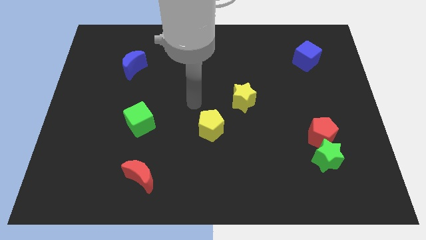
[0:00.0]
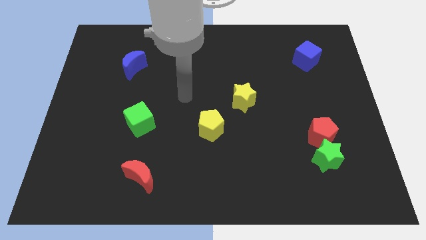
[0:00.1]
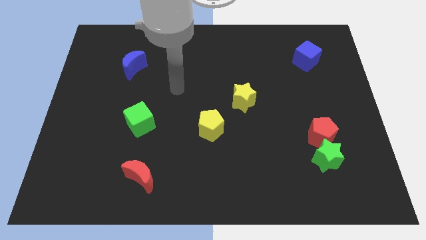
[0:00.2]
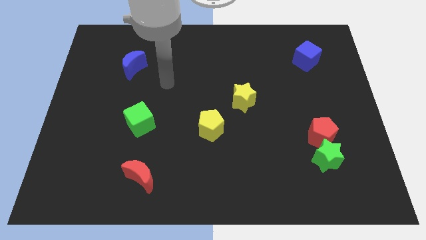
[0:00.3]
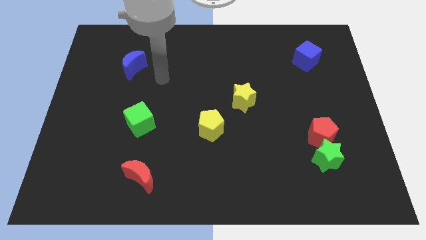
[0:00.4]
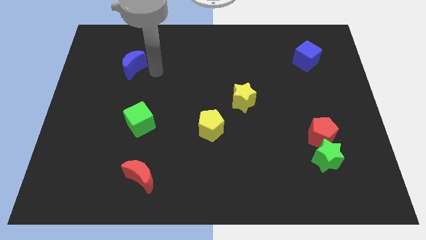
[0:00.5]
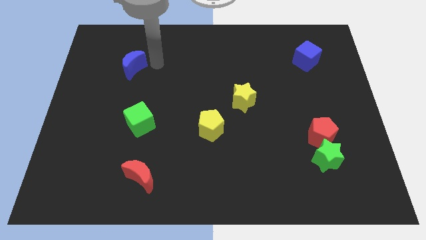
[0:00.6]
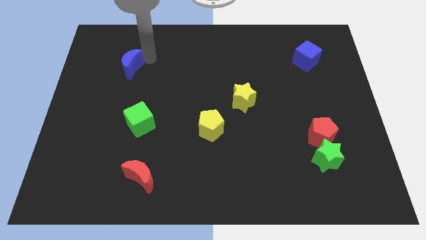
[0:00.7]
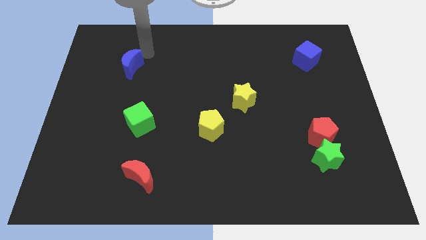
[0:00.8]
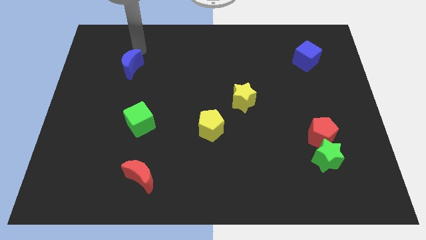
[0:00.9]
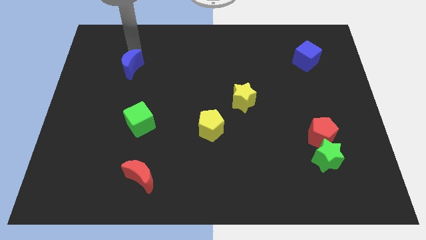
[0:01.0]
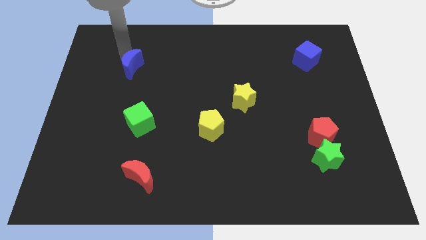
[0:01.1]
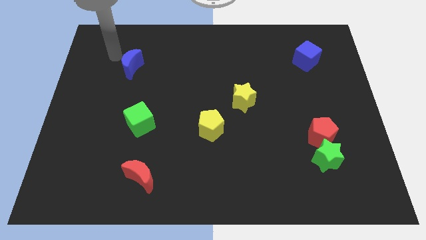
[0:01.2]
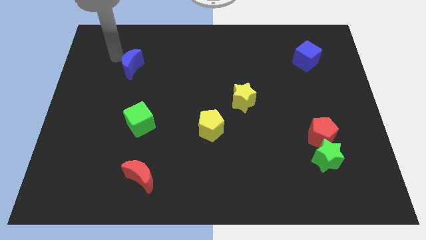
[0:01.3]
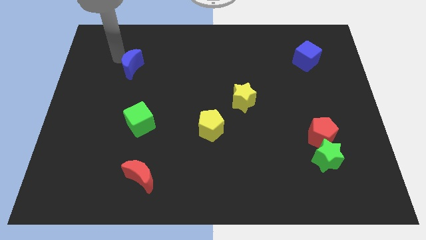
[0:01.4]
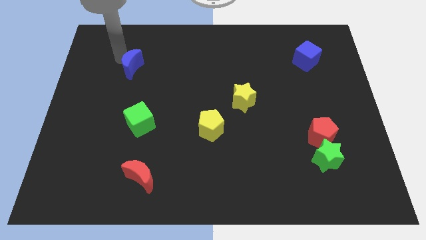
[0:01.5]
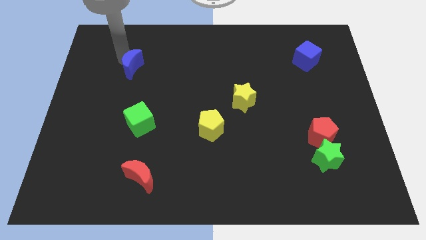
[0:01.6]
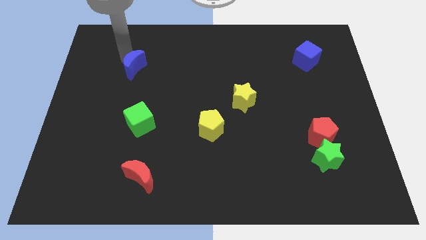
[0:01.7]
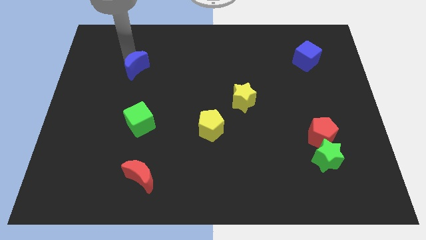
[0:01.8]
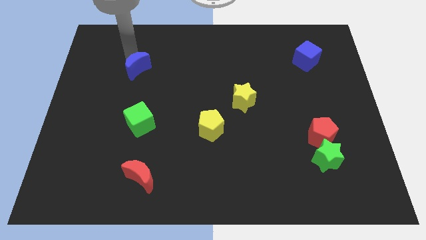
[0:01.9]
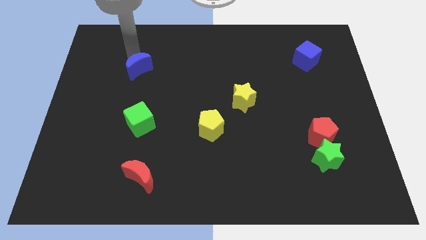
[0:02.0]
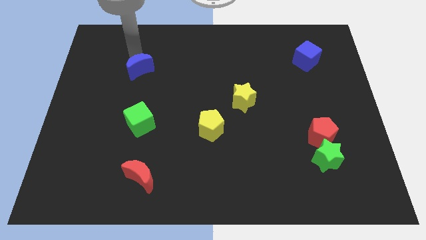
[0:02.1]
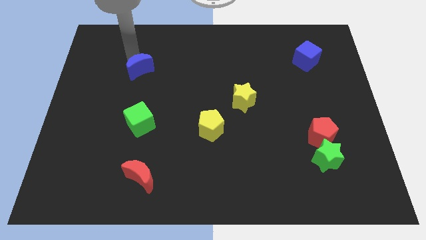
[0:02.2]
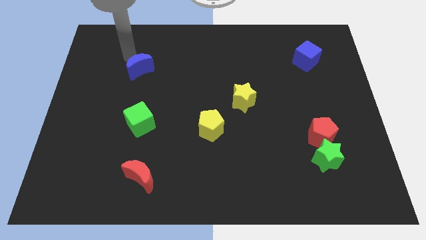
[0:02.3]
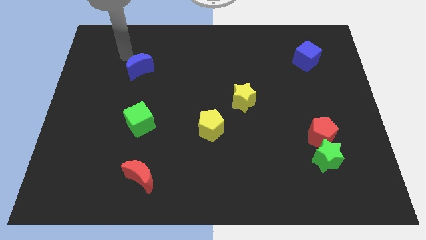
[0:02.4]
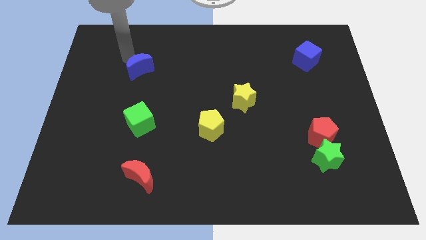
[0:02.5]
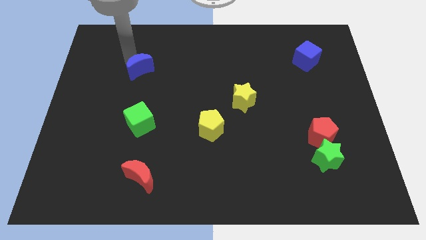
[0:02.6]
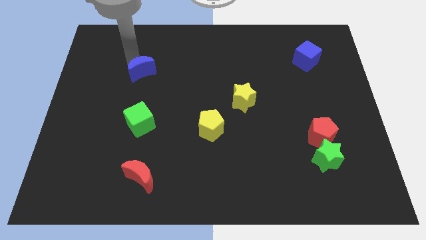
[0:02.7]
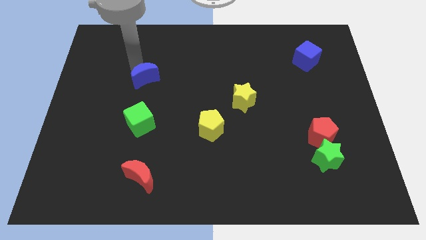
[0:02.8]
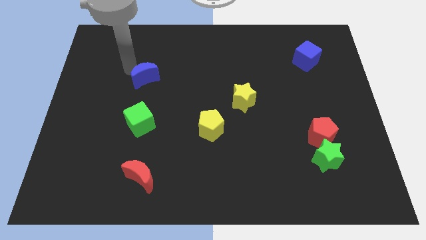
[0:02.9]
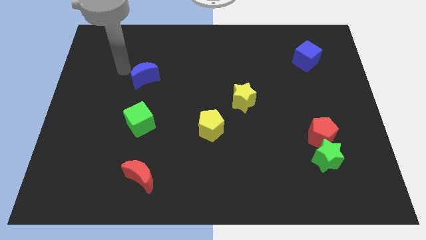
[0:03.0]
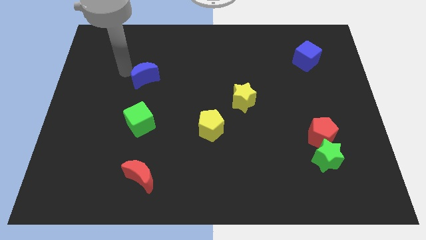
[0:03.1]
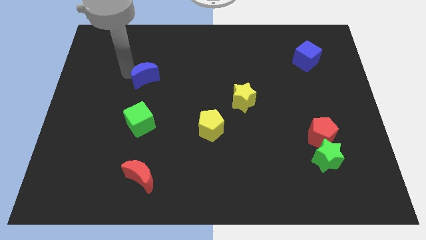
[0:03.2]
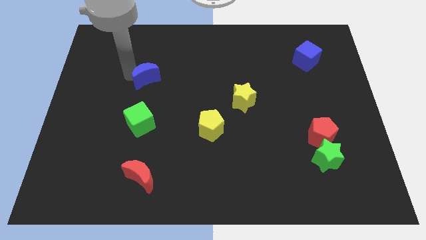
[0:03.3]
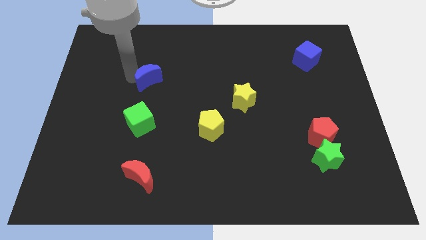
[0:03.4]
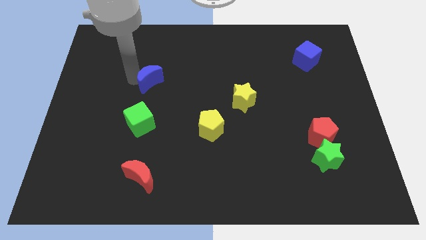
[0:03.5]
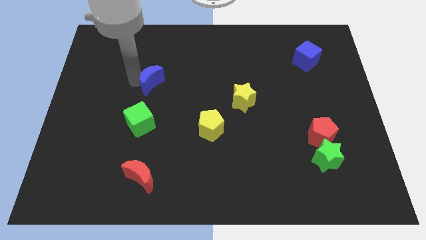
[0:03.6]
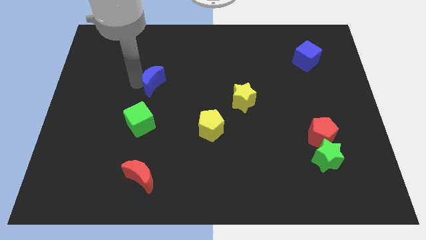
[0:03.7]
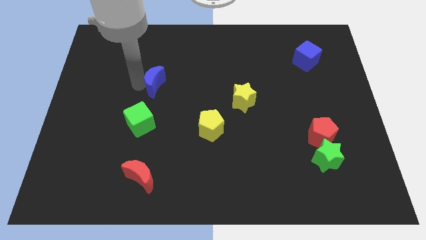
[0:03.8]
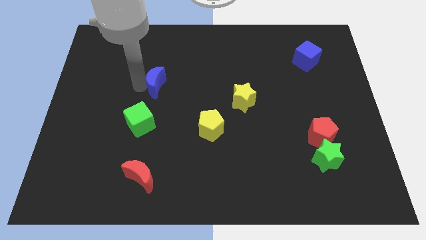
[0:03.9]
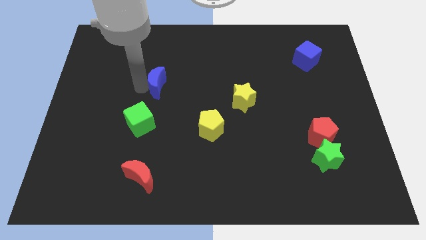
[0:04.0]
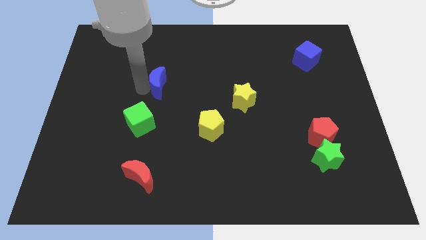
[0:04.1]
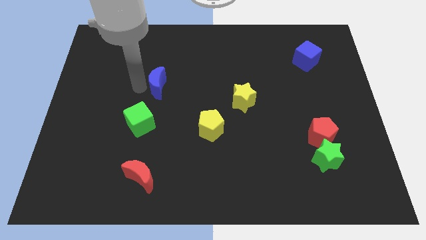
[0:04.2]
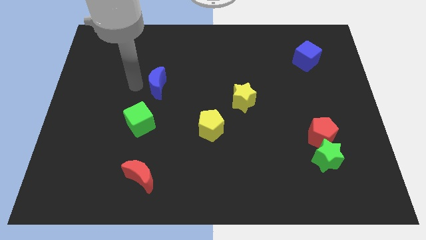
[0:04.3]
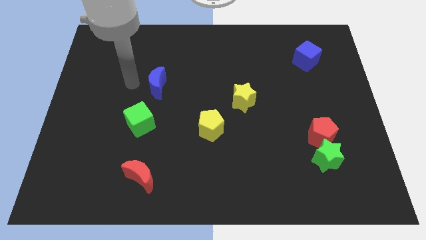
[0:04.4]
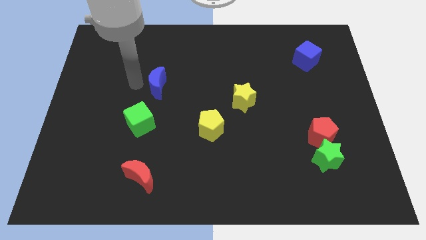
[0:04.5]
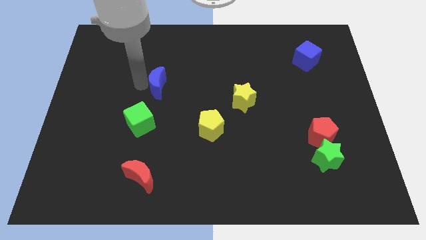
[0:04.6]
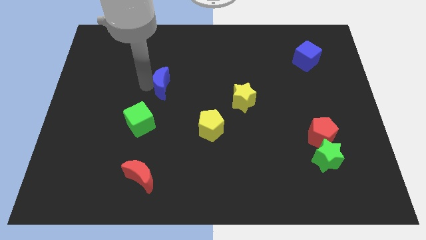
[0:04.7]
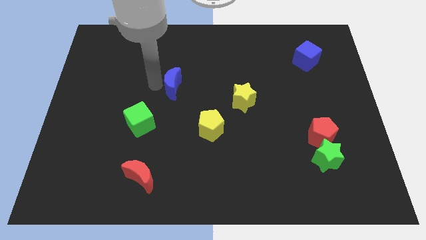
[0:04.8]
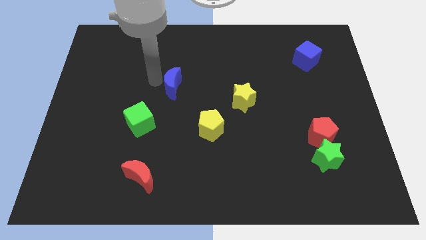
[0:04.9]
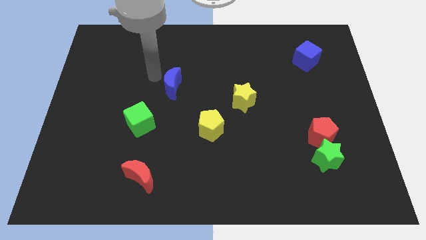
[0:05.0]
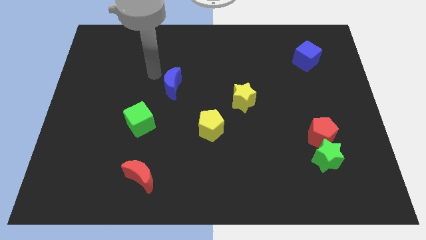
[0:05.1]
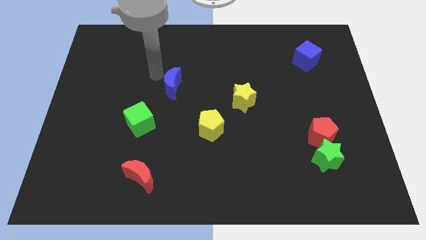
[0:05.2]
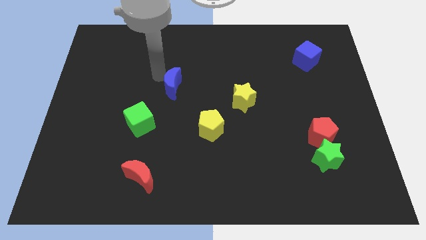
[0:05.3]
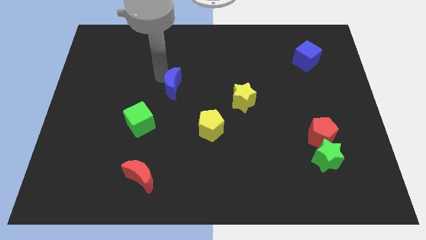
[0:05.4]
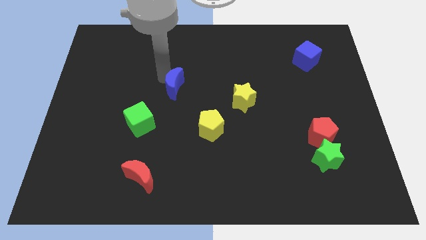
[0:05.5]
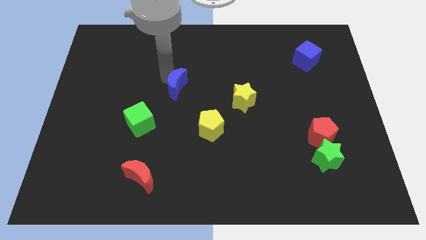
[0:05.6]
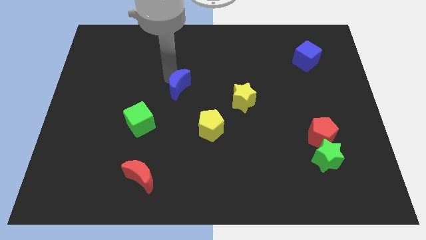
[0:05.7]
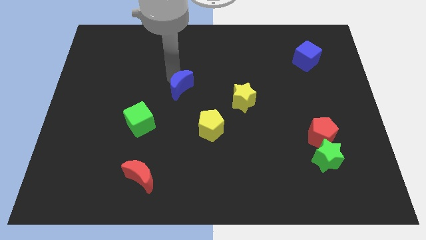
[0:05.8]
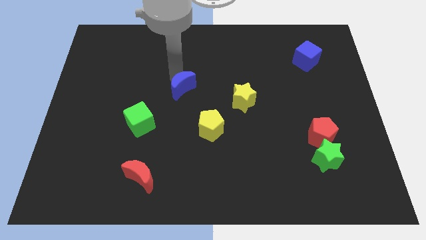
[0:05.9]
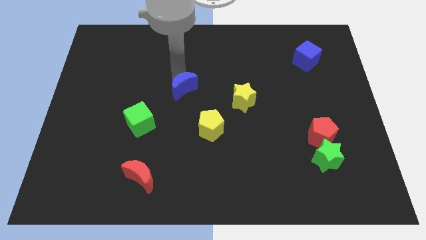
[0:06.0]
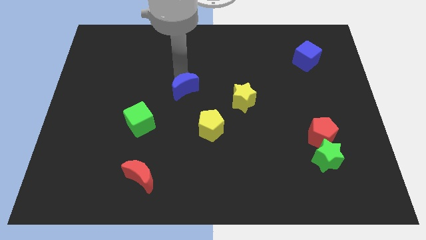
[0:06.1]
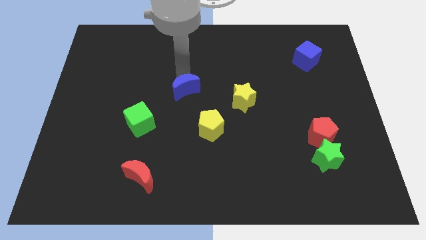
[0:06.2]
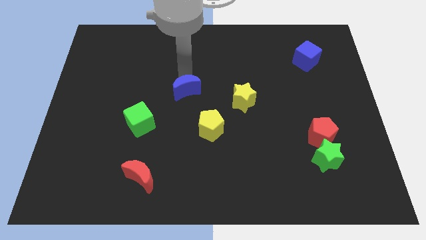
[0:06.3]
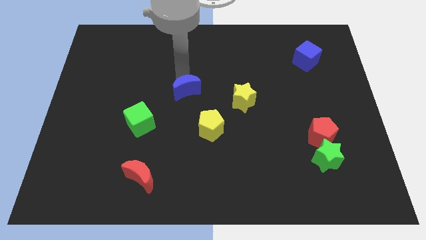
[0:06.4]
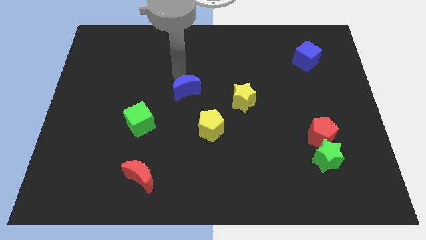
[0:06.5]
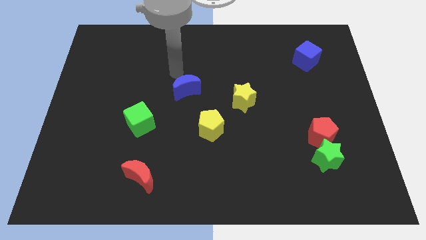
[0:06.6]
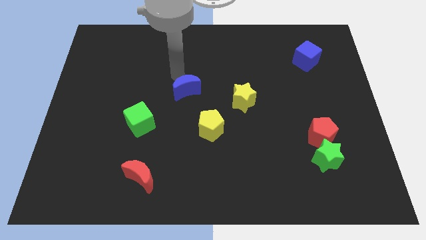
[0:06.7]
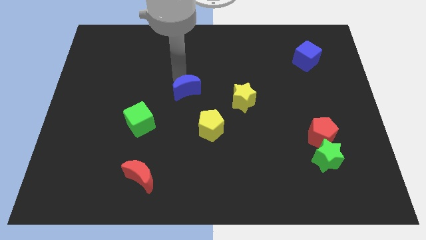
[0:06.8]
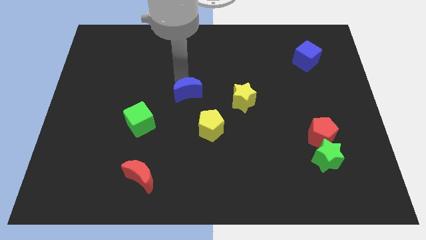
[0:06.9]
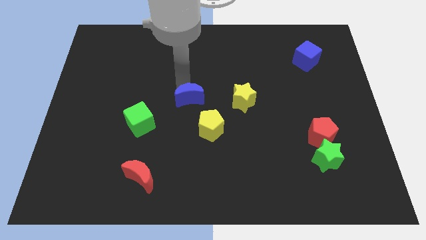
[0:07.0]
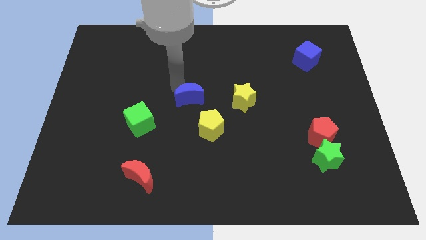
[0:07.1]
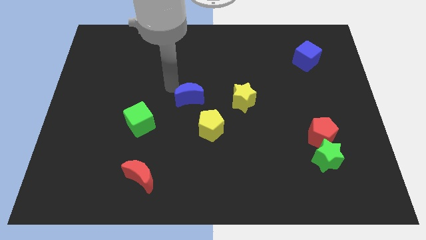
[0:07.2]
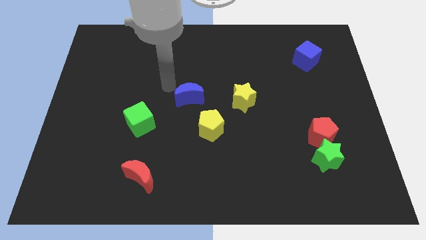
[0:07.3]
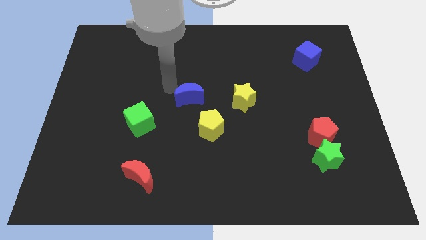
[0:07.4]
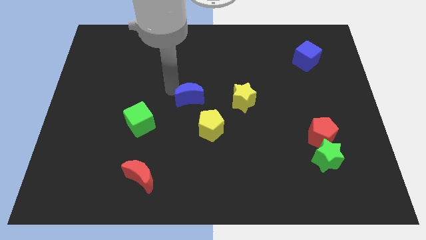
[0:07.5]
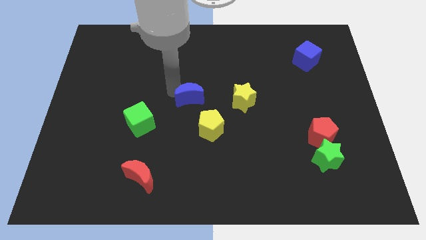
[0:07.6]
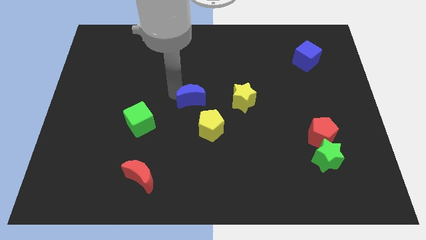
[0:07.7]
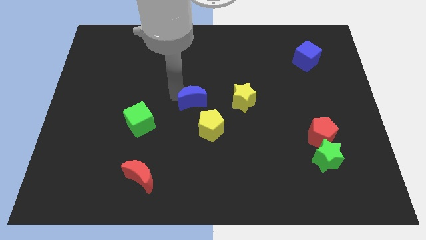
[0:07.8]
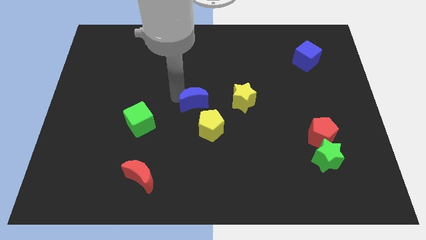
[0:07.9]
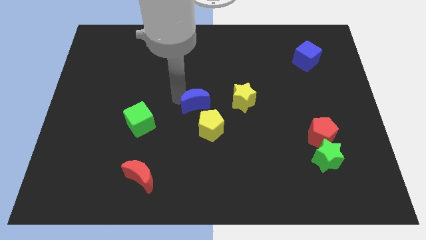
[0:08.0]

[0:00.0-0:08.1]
move the blue moon down and right
